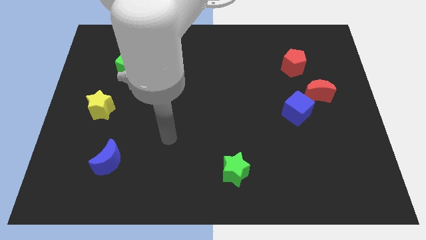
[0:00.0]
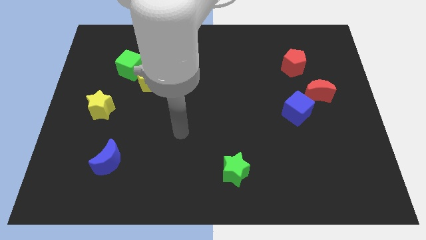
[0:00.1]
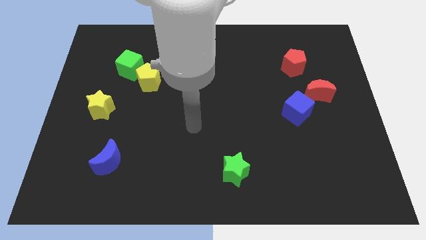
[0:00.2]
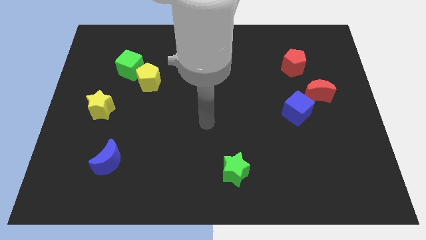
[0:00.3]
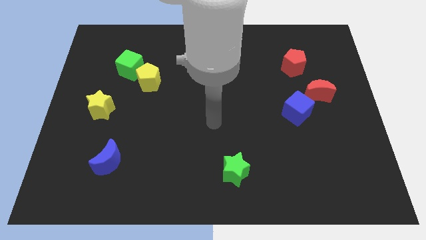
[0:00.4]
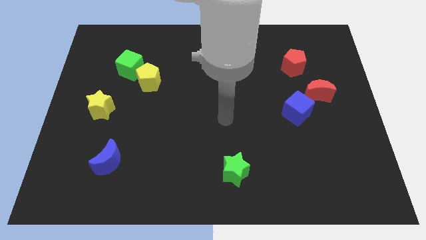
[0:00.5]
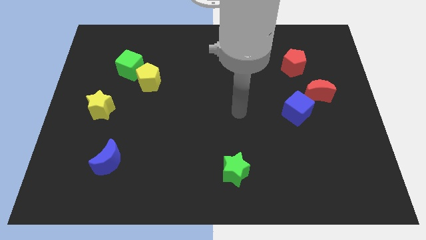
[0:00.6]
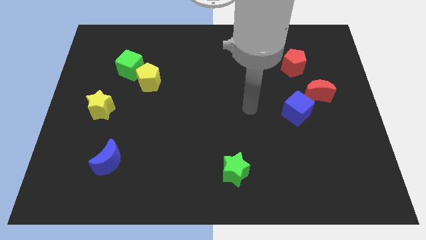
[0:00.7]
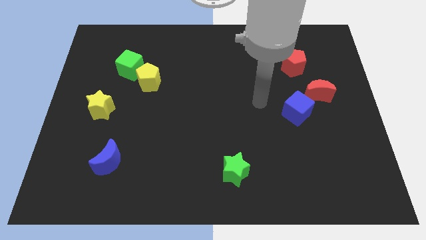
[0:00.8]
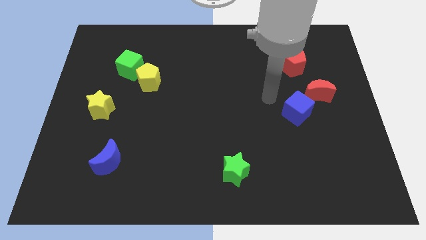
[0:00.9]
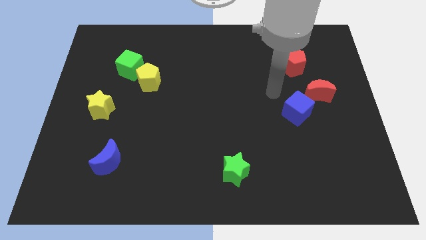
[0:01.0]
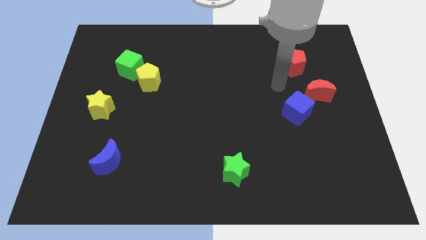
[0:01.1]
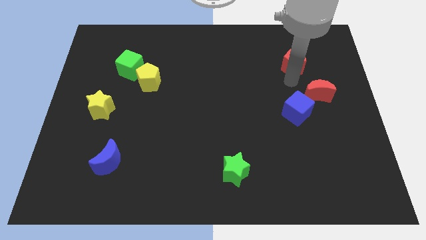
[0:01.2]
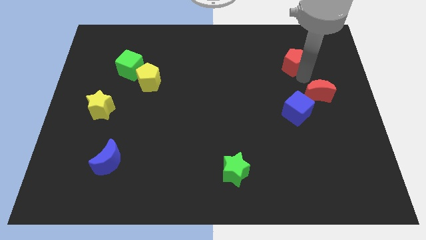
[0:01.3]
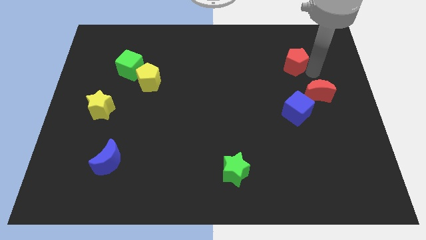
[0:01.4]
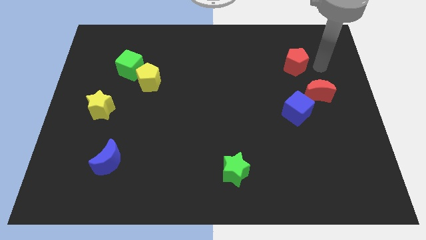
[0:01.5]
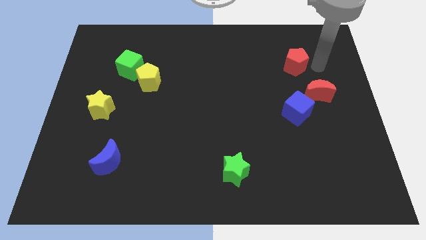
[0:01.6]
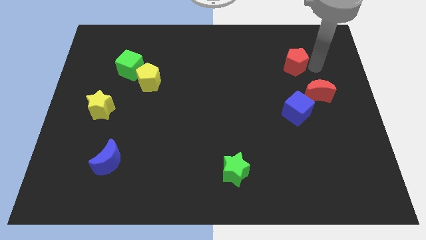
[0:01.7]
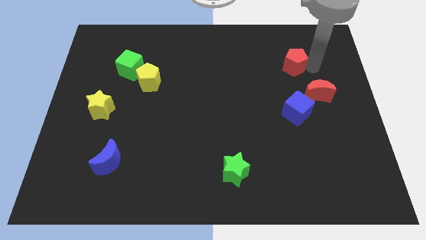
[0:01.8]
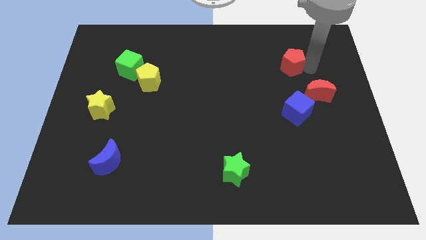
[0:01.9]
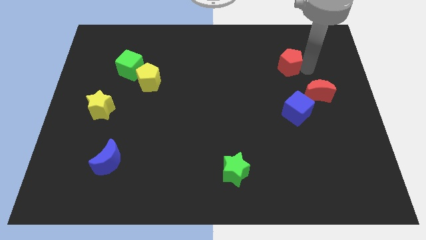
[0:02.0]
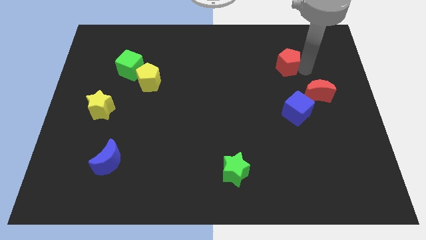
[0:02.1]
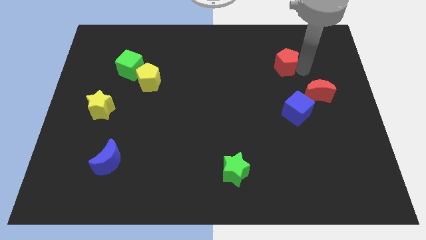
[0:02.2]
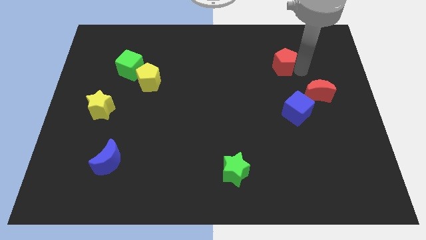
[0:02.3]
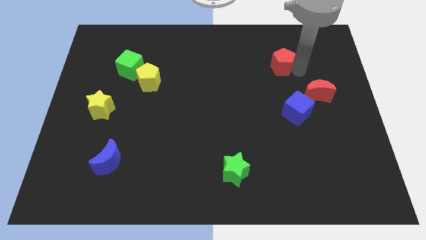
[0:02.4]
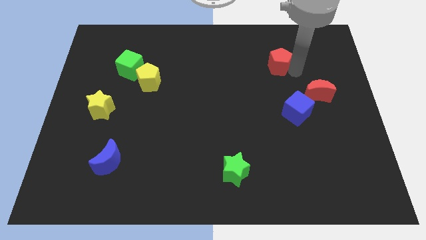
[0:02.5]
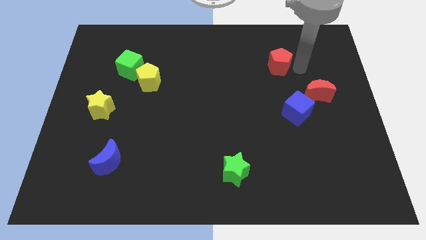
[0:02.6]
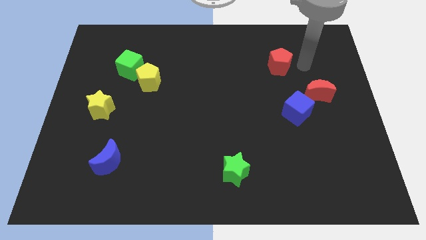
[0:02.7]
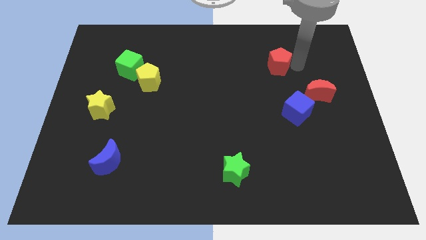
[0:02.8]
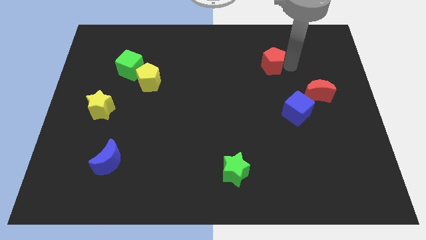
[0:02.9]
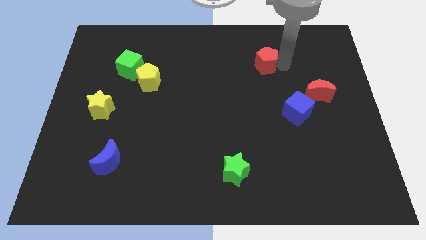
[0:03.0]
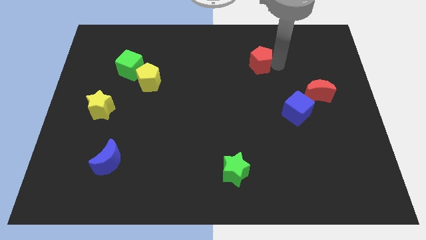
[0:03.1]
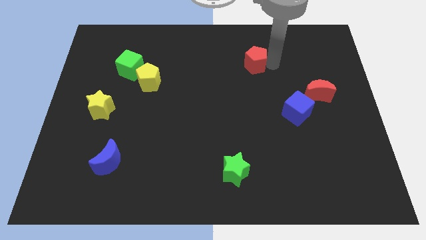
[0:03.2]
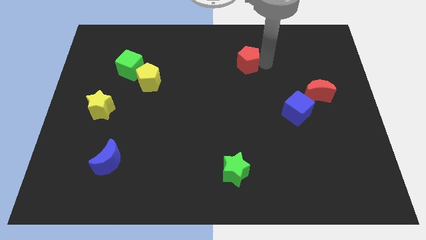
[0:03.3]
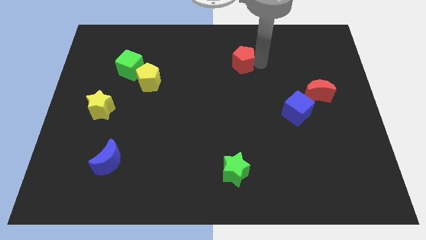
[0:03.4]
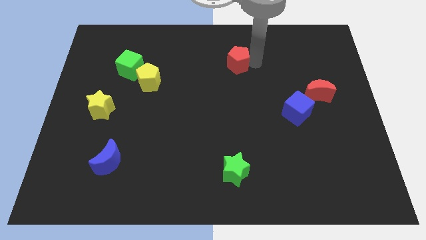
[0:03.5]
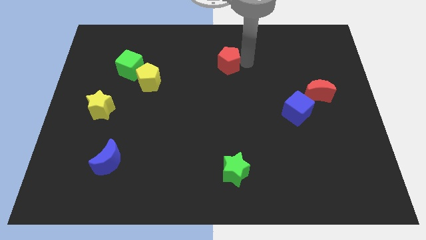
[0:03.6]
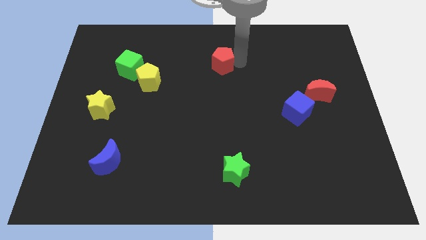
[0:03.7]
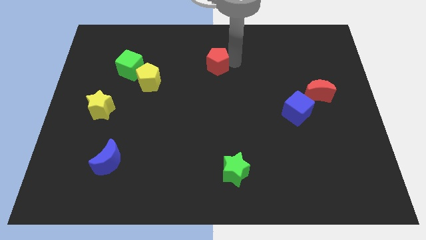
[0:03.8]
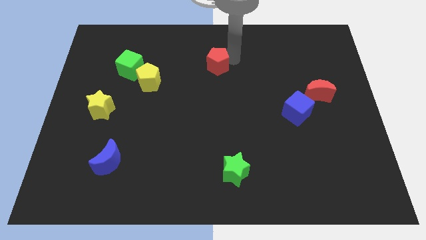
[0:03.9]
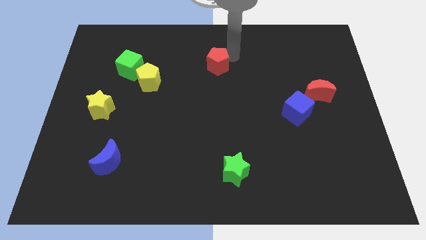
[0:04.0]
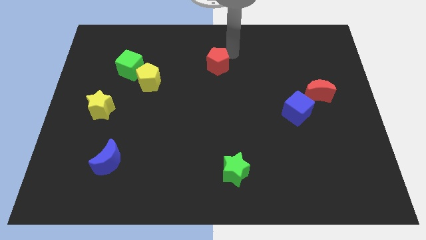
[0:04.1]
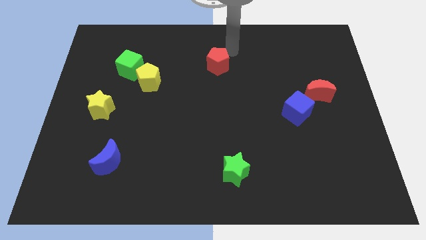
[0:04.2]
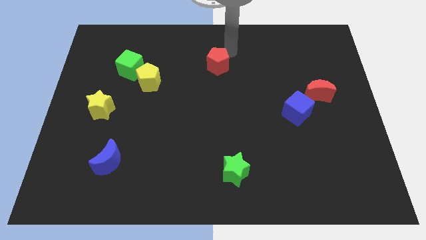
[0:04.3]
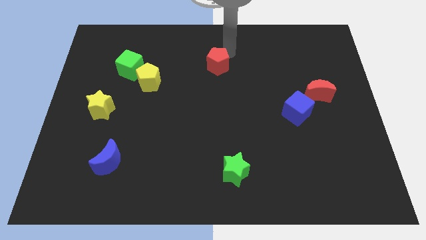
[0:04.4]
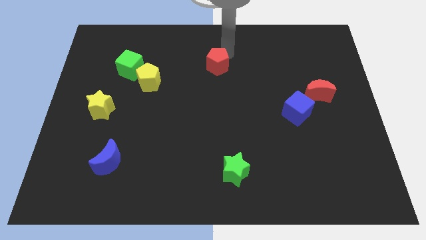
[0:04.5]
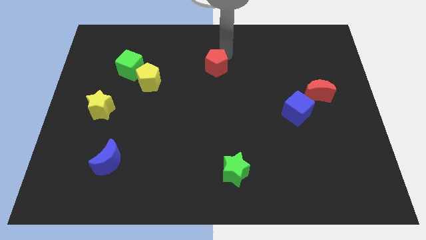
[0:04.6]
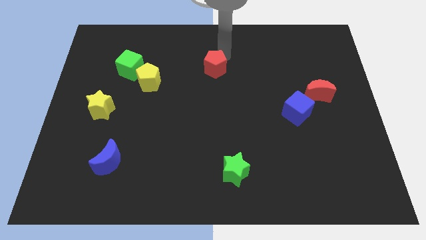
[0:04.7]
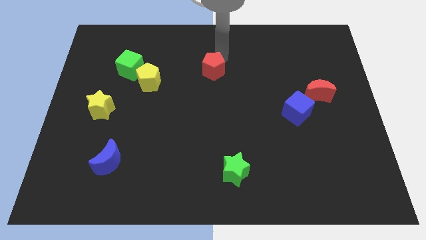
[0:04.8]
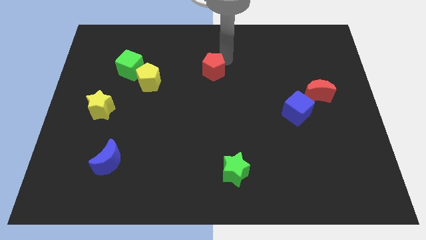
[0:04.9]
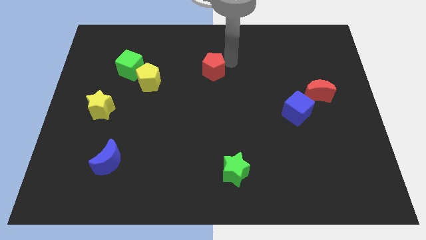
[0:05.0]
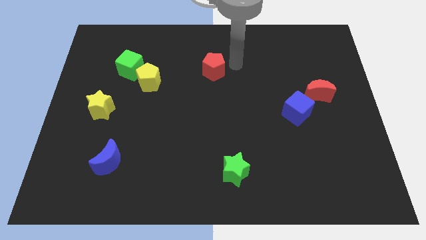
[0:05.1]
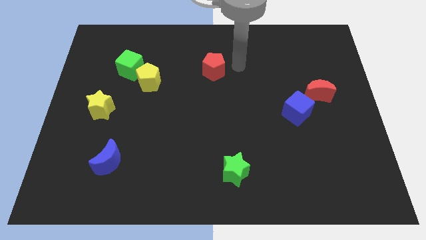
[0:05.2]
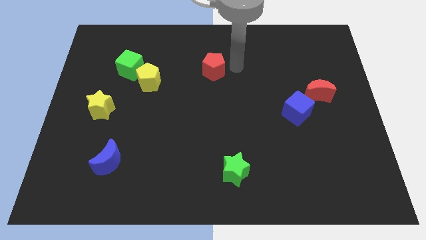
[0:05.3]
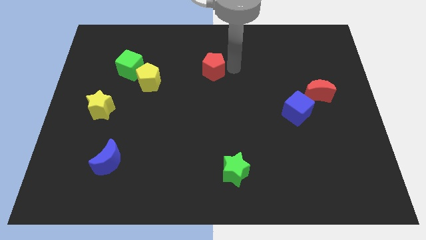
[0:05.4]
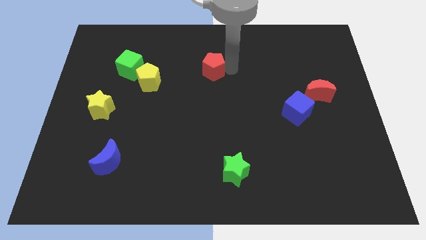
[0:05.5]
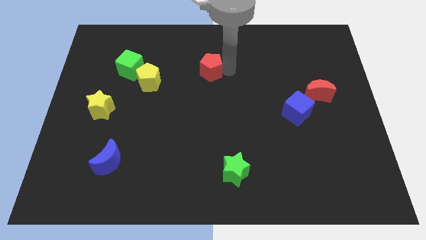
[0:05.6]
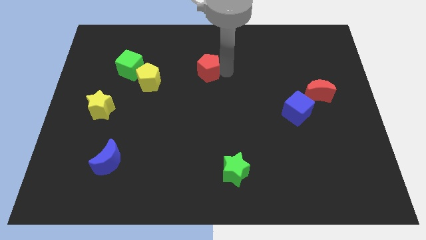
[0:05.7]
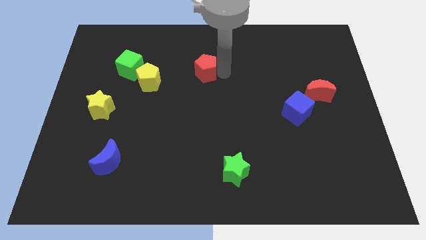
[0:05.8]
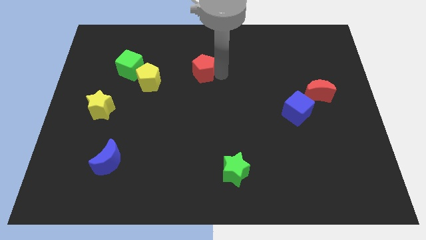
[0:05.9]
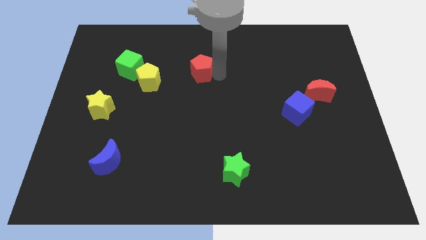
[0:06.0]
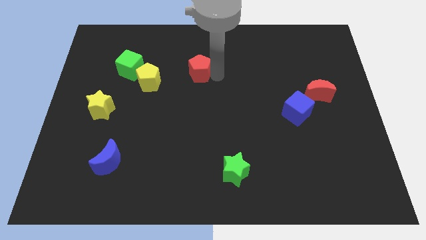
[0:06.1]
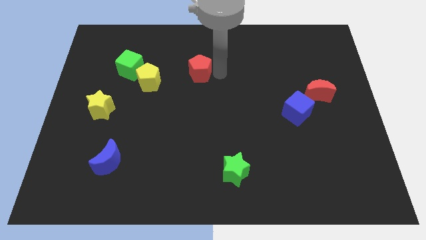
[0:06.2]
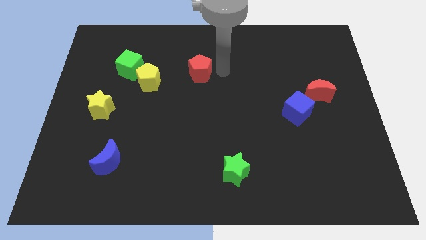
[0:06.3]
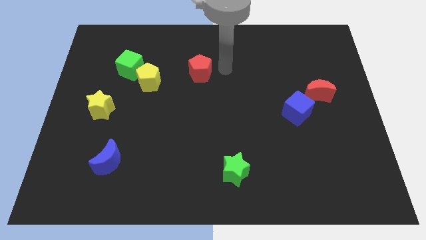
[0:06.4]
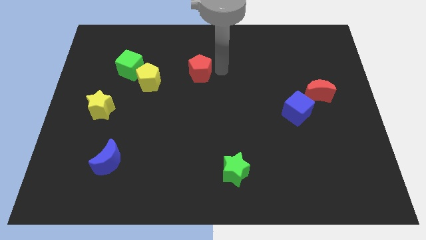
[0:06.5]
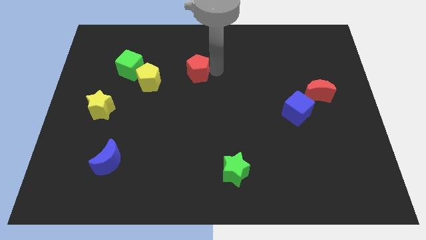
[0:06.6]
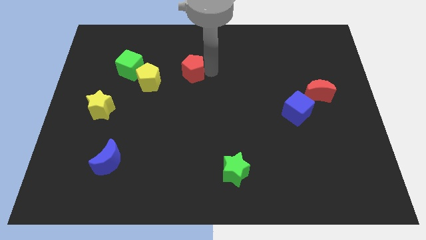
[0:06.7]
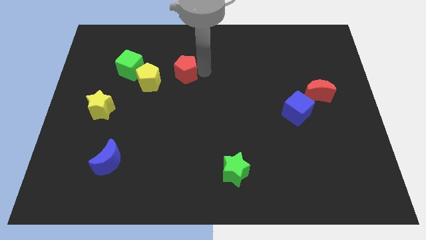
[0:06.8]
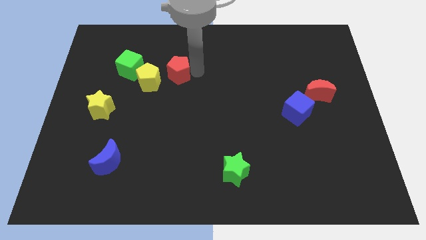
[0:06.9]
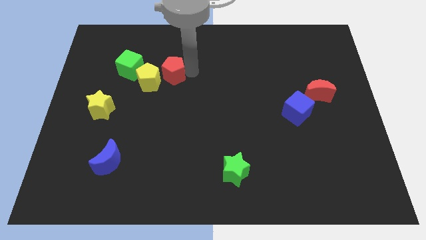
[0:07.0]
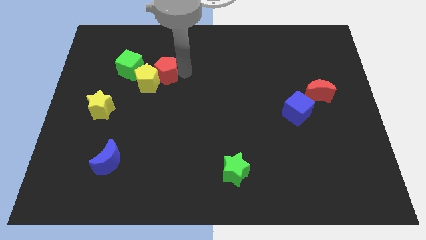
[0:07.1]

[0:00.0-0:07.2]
slide the red pentagon to the yellow pentagon
